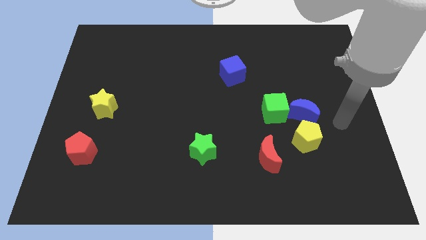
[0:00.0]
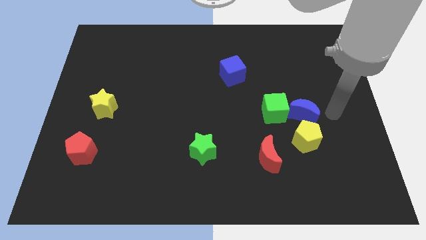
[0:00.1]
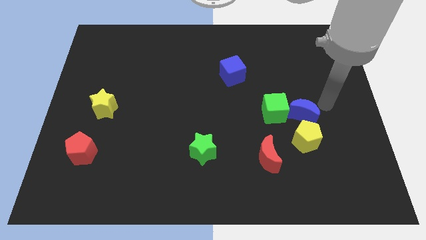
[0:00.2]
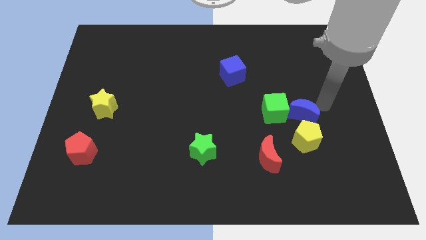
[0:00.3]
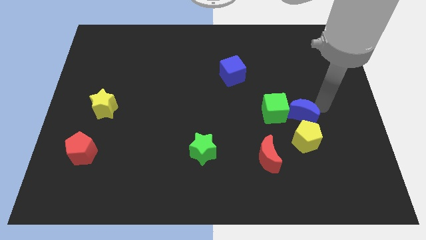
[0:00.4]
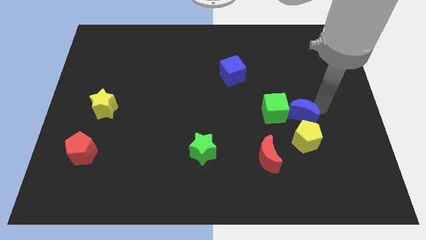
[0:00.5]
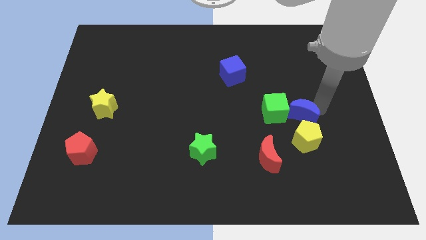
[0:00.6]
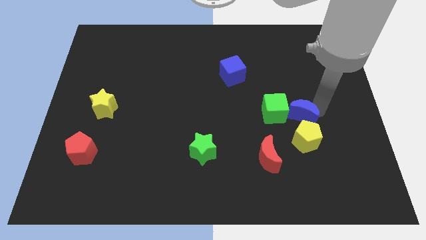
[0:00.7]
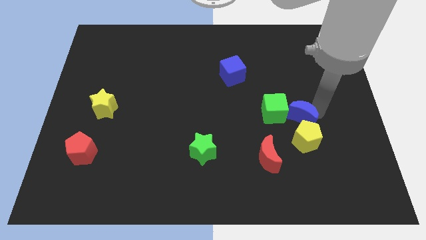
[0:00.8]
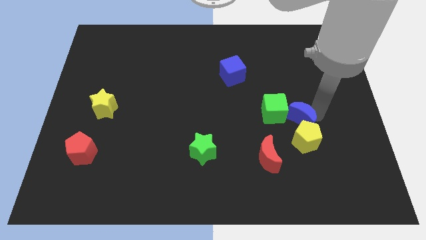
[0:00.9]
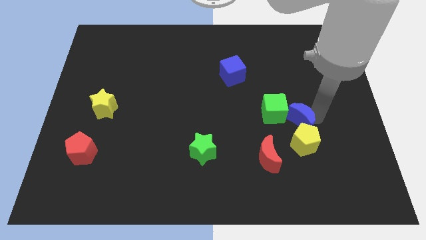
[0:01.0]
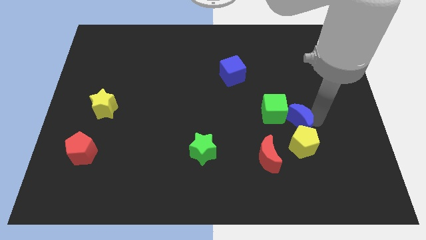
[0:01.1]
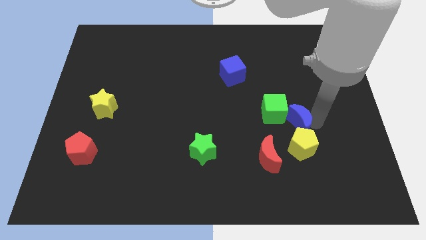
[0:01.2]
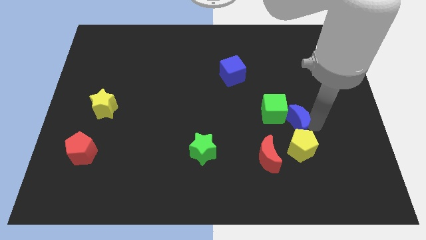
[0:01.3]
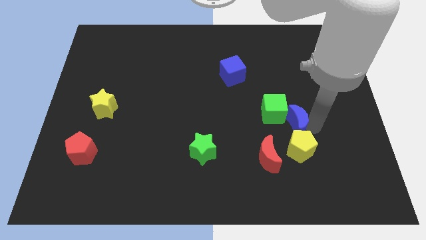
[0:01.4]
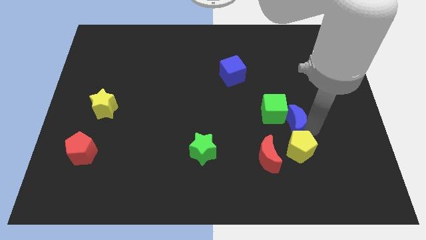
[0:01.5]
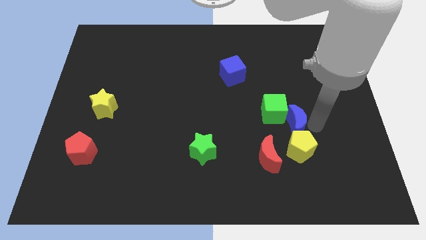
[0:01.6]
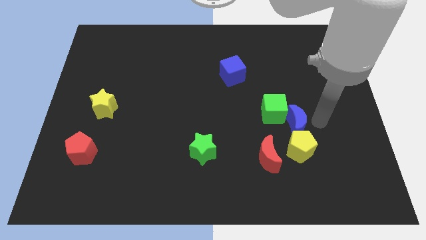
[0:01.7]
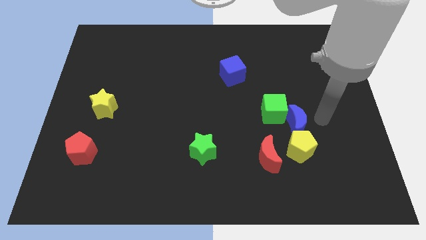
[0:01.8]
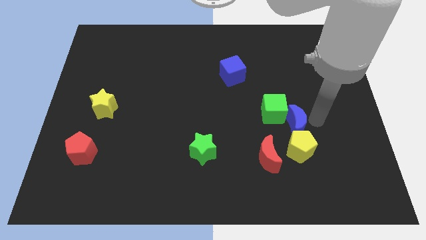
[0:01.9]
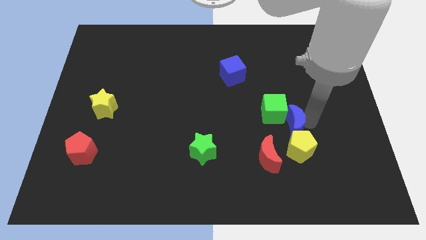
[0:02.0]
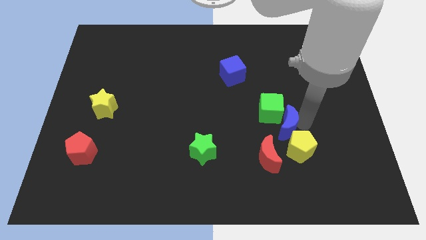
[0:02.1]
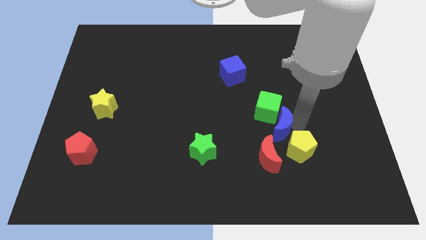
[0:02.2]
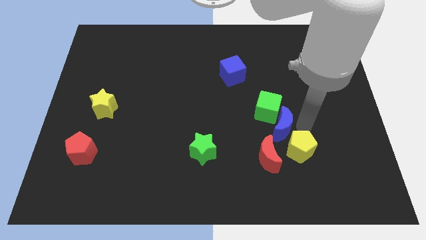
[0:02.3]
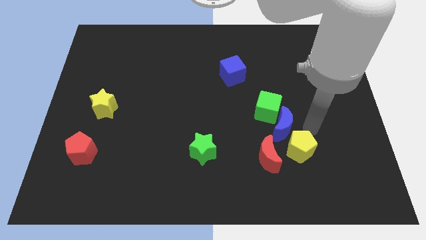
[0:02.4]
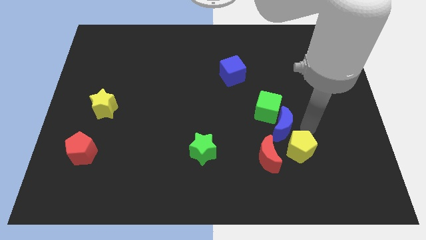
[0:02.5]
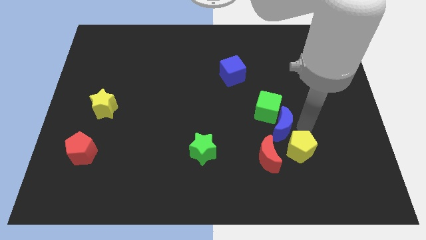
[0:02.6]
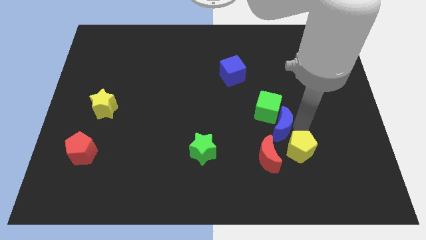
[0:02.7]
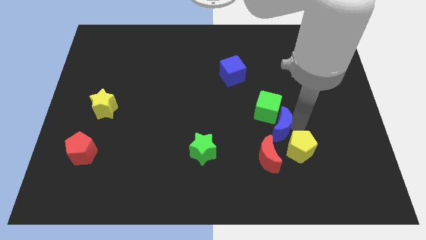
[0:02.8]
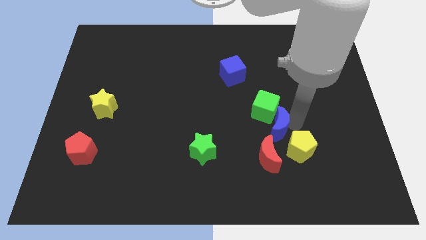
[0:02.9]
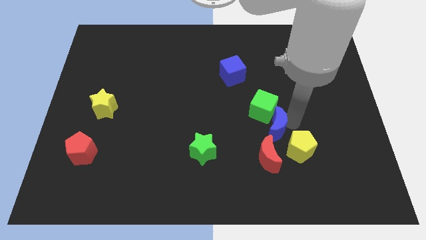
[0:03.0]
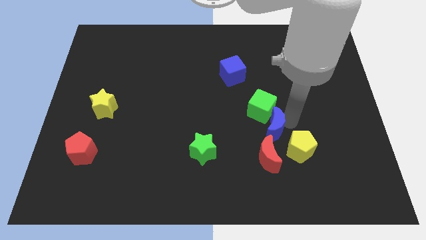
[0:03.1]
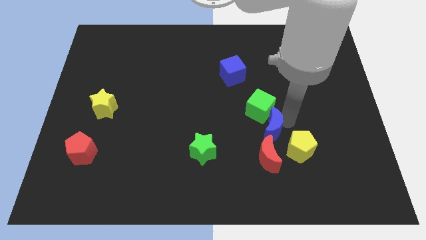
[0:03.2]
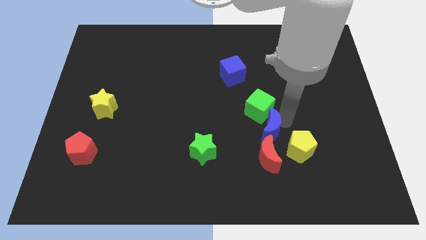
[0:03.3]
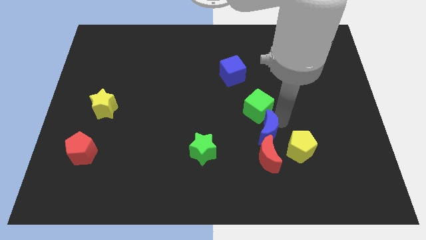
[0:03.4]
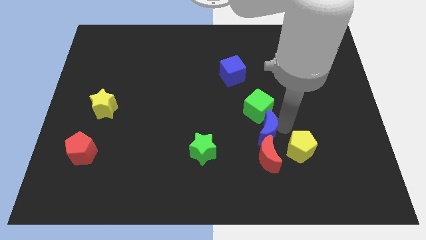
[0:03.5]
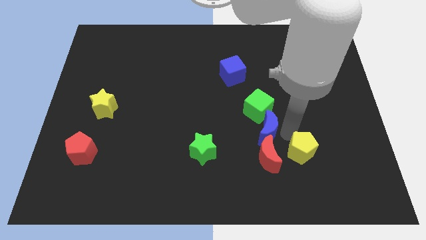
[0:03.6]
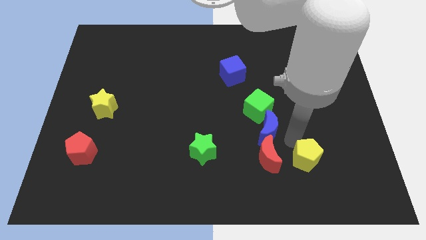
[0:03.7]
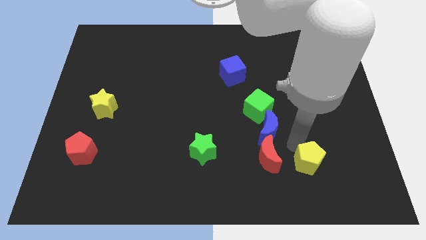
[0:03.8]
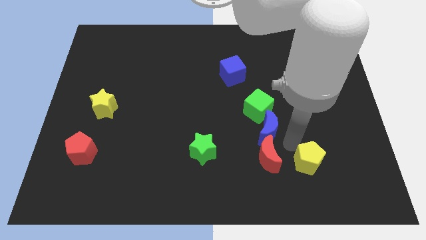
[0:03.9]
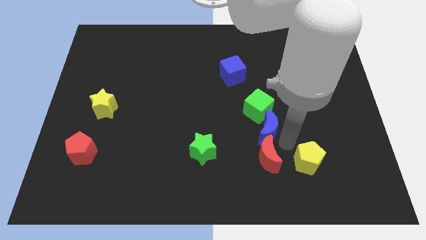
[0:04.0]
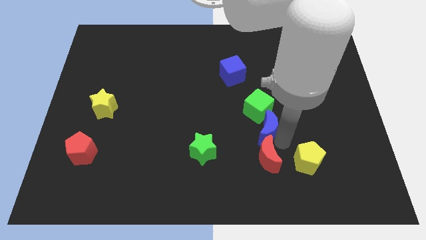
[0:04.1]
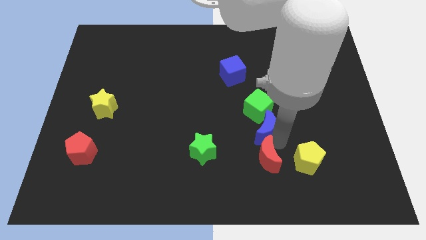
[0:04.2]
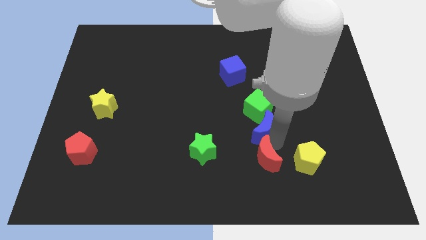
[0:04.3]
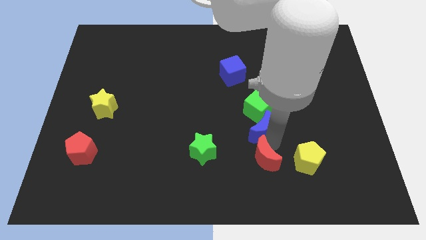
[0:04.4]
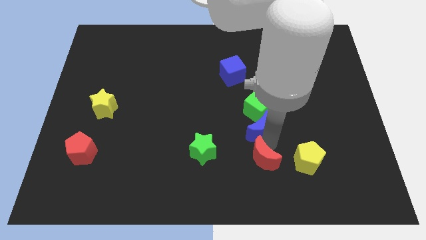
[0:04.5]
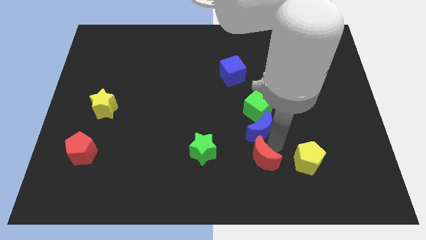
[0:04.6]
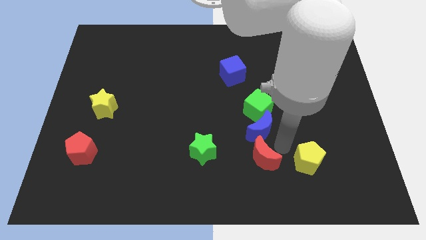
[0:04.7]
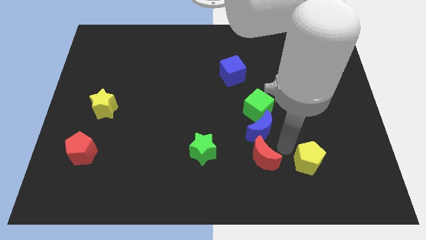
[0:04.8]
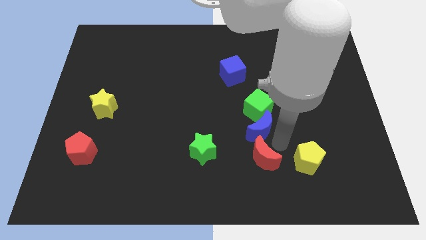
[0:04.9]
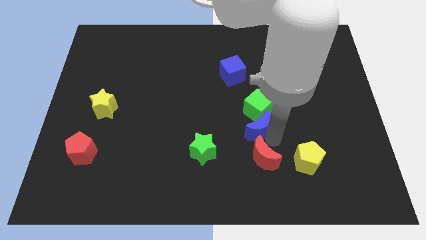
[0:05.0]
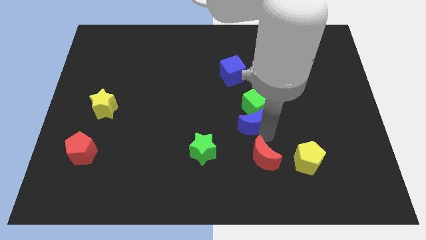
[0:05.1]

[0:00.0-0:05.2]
put the blue moon to the middle of the board

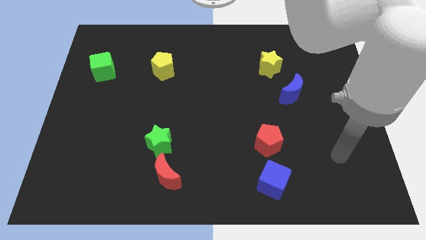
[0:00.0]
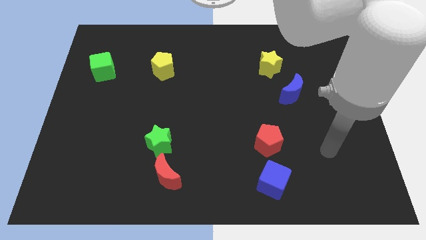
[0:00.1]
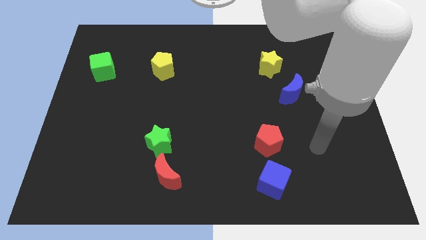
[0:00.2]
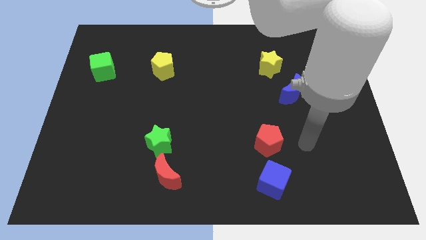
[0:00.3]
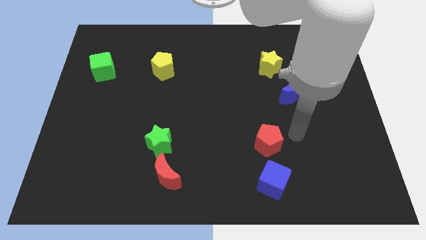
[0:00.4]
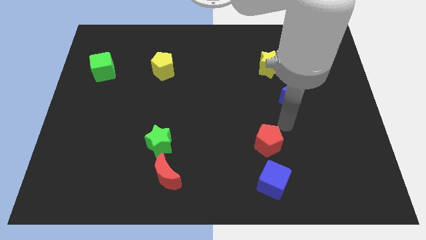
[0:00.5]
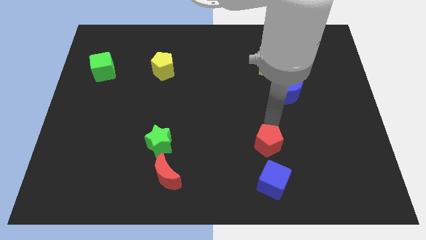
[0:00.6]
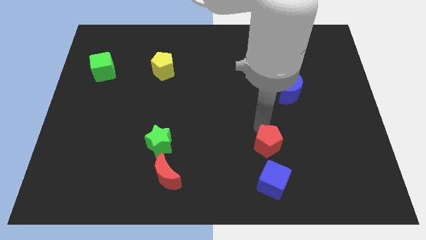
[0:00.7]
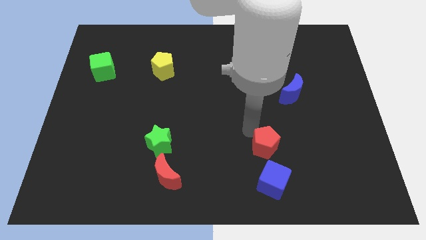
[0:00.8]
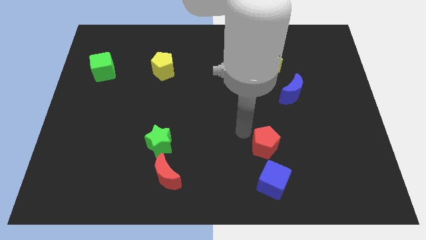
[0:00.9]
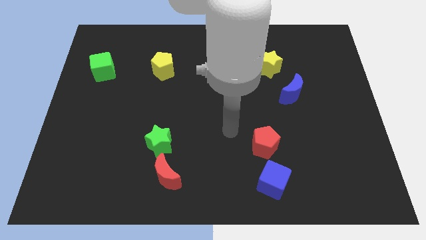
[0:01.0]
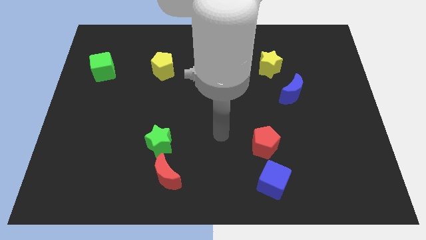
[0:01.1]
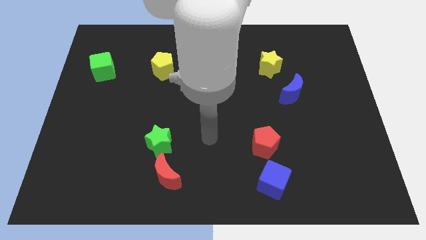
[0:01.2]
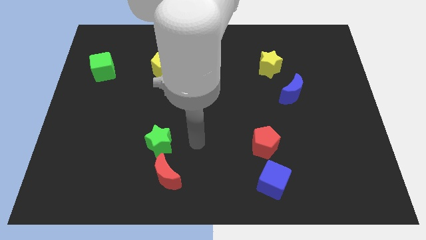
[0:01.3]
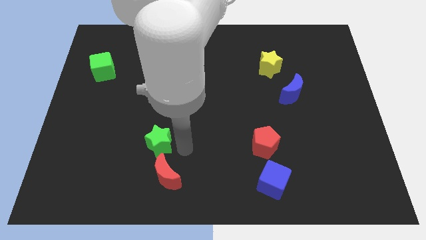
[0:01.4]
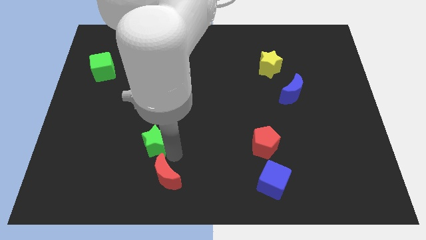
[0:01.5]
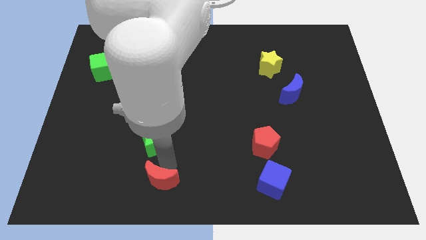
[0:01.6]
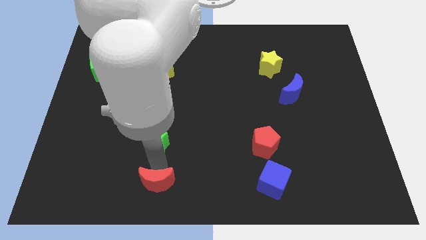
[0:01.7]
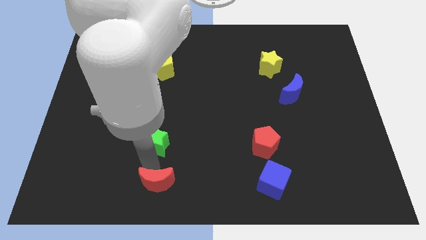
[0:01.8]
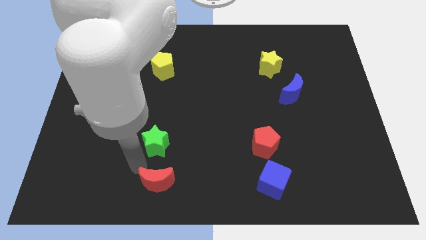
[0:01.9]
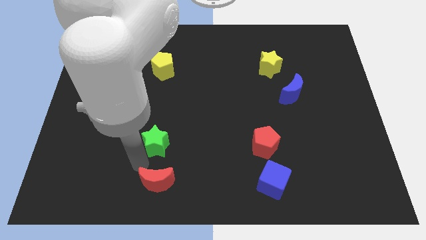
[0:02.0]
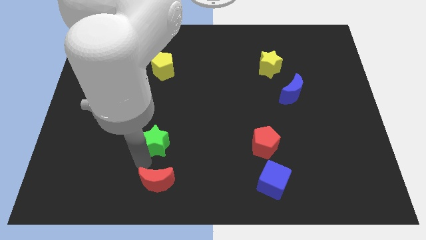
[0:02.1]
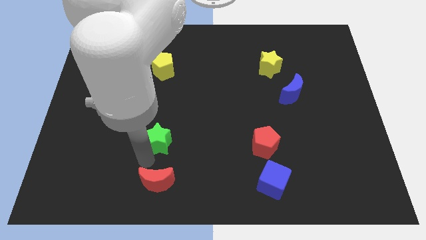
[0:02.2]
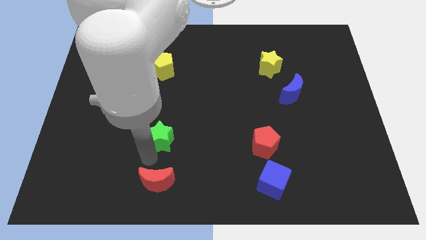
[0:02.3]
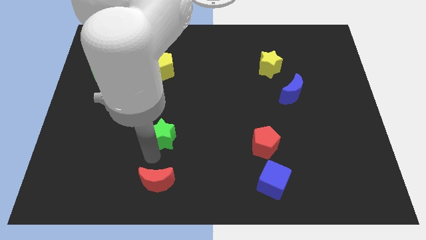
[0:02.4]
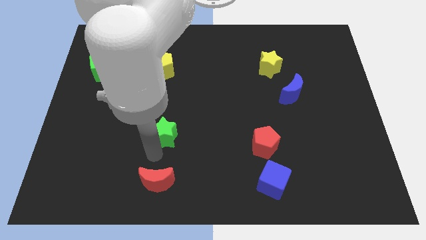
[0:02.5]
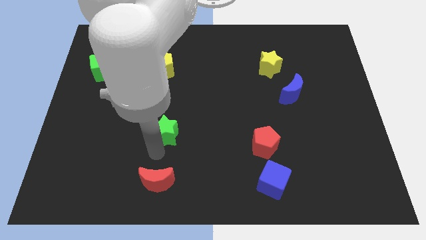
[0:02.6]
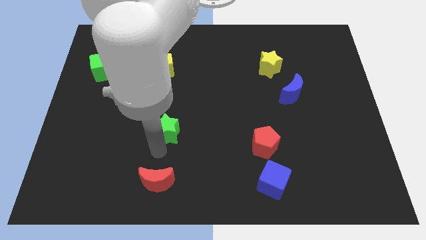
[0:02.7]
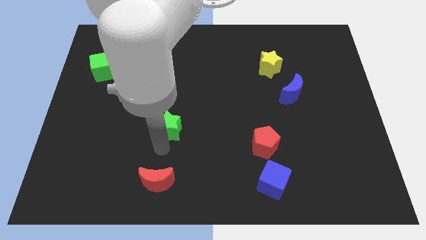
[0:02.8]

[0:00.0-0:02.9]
push the green star to the center
